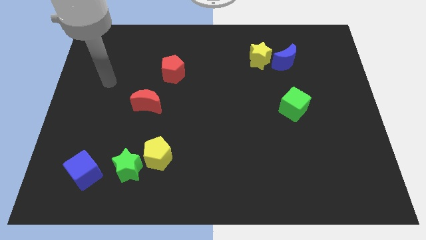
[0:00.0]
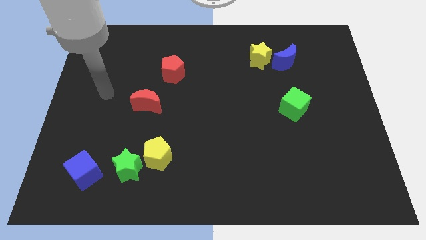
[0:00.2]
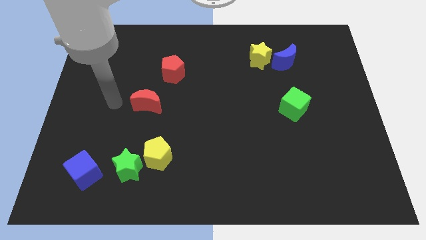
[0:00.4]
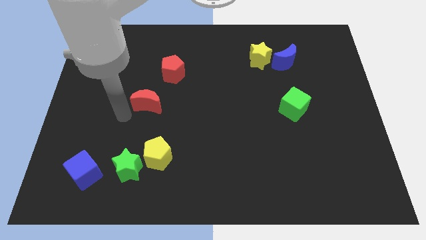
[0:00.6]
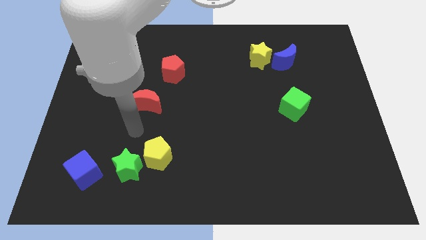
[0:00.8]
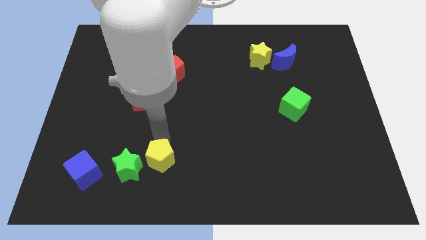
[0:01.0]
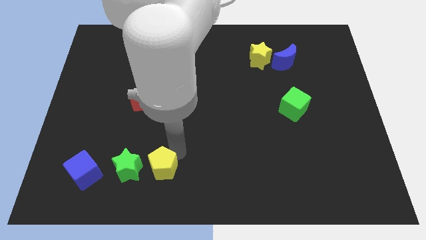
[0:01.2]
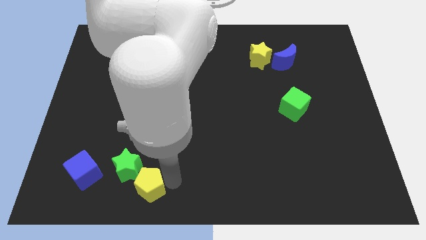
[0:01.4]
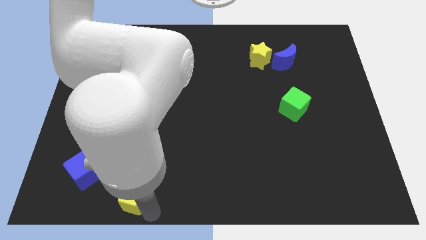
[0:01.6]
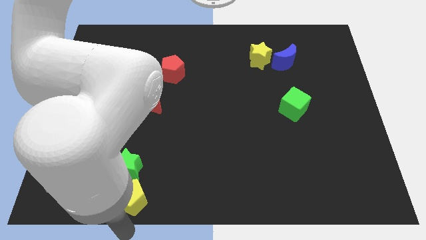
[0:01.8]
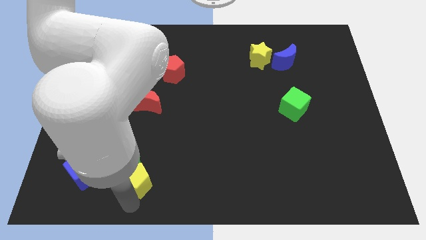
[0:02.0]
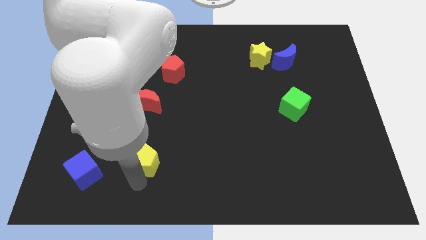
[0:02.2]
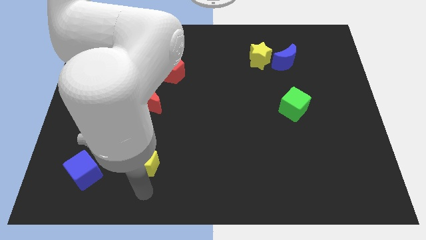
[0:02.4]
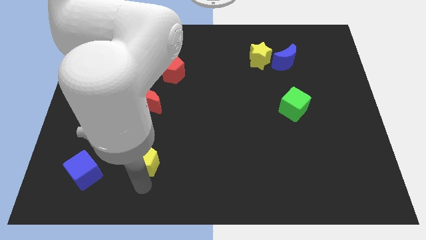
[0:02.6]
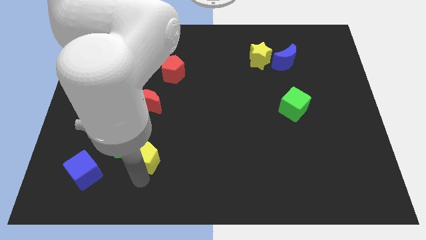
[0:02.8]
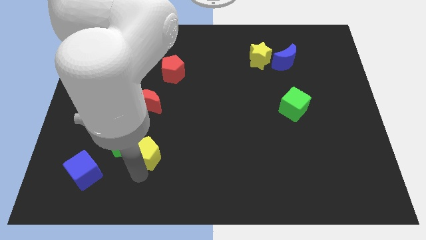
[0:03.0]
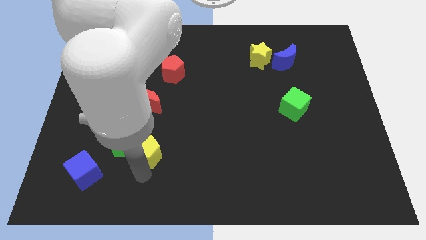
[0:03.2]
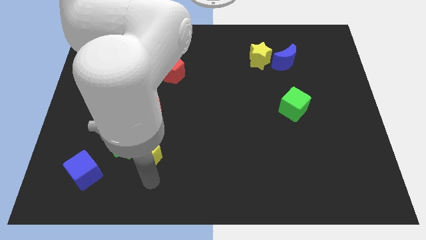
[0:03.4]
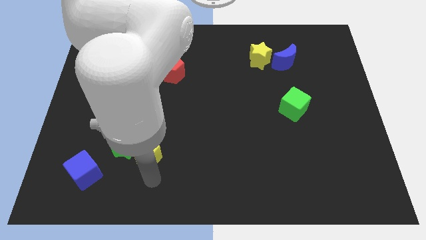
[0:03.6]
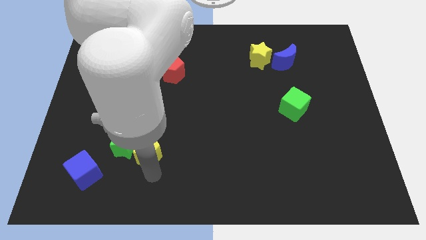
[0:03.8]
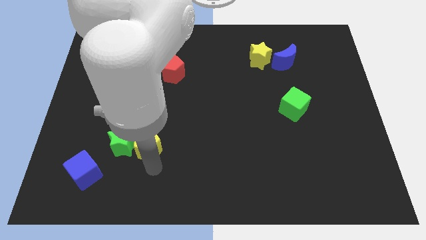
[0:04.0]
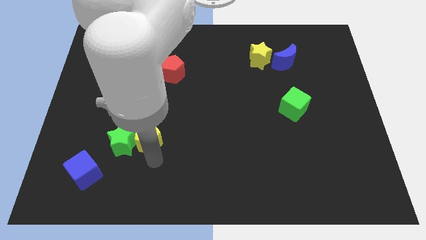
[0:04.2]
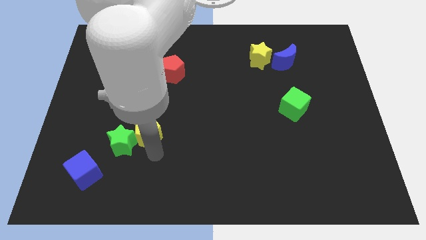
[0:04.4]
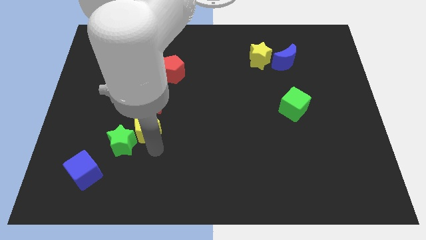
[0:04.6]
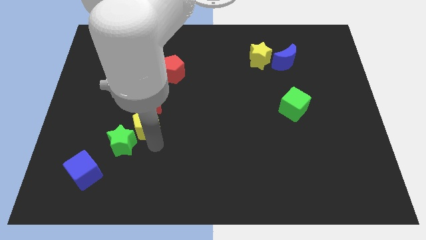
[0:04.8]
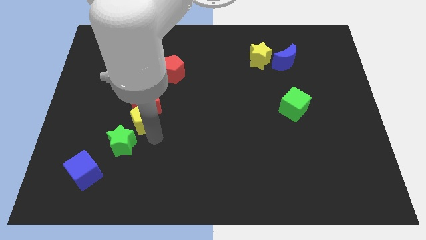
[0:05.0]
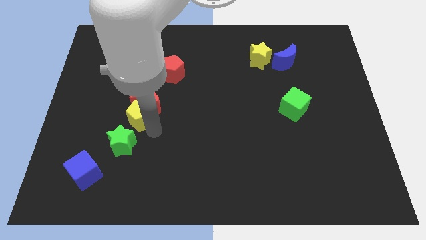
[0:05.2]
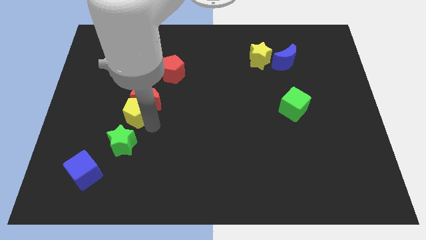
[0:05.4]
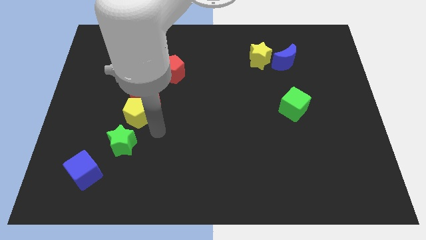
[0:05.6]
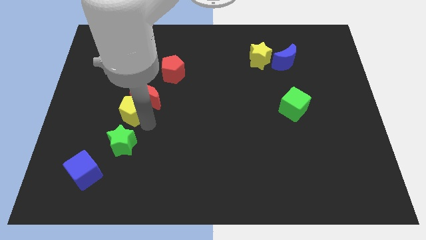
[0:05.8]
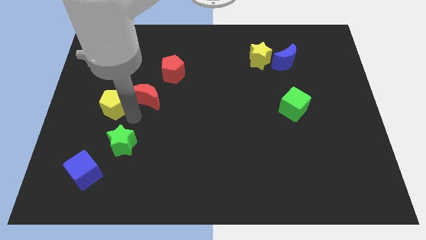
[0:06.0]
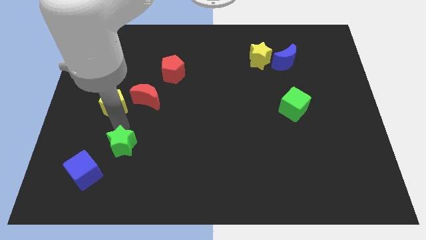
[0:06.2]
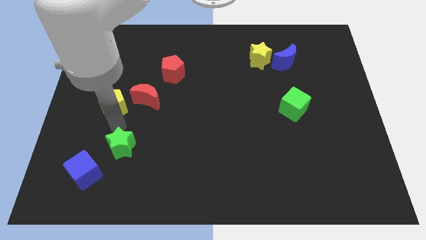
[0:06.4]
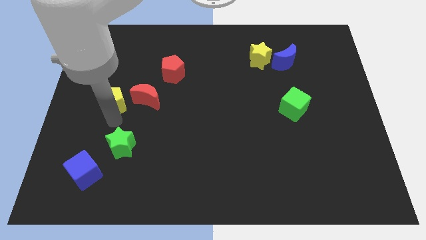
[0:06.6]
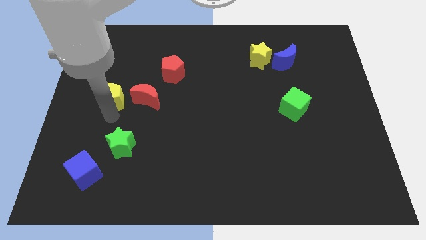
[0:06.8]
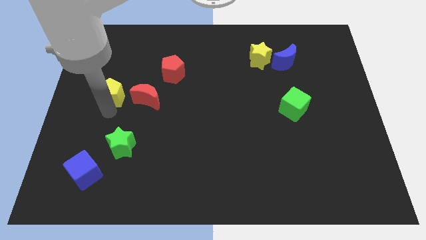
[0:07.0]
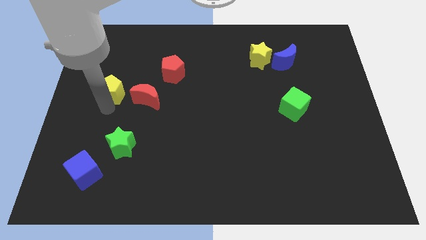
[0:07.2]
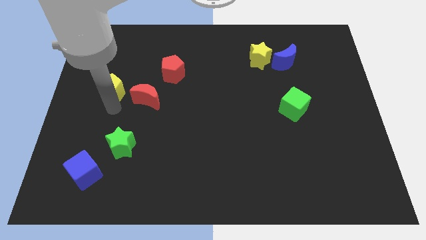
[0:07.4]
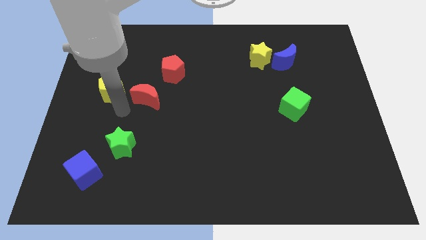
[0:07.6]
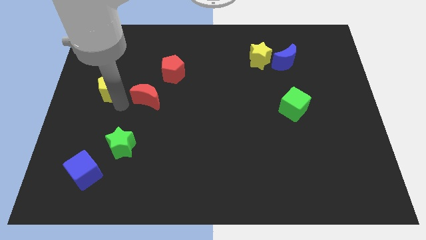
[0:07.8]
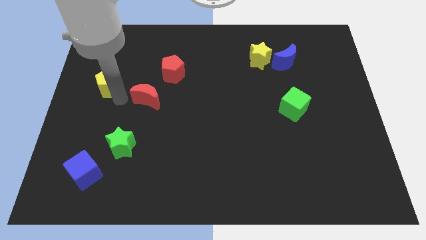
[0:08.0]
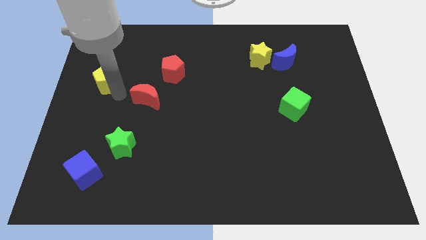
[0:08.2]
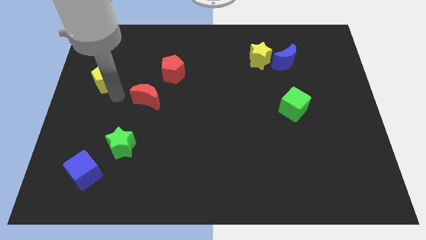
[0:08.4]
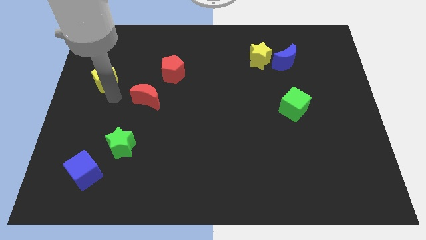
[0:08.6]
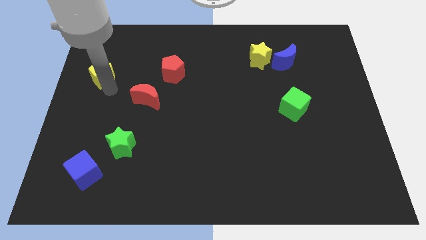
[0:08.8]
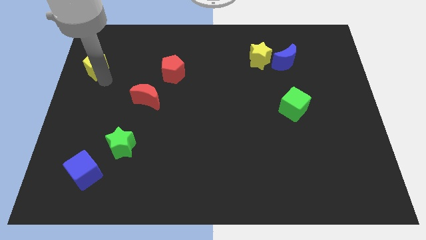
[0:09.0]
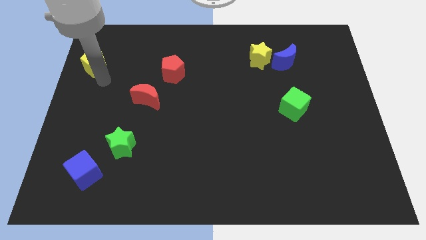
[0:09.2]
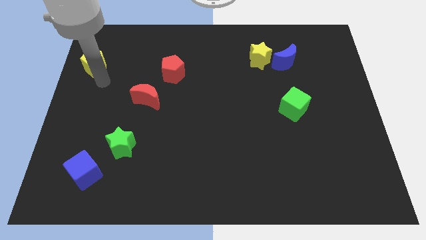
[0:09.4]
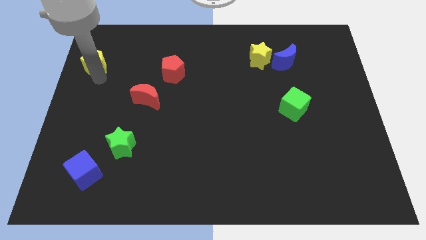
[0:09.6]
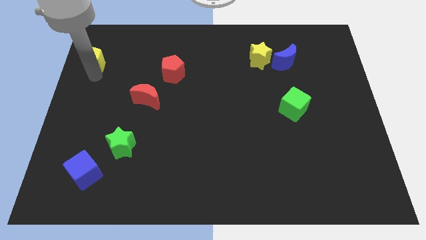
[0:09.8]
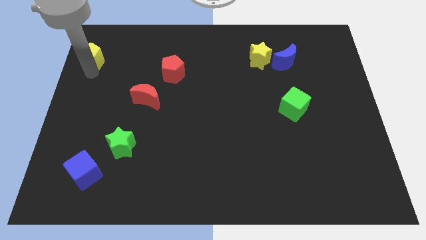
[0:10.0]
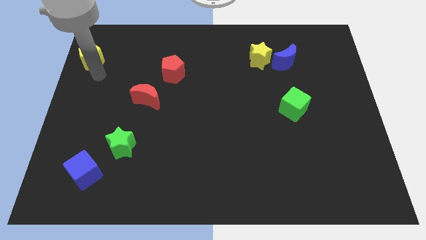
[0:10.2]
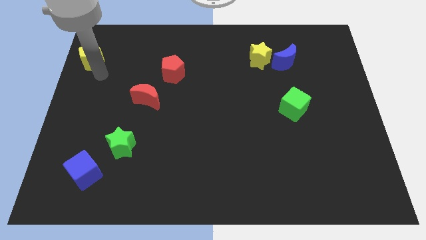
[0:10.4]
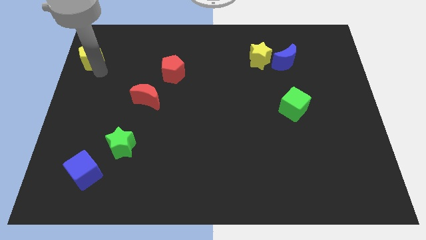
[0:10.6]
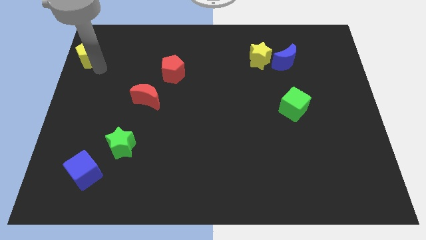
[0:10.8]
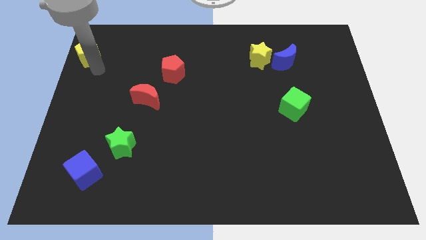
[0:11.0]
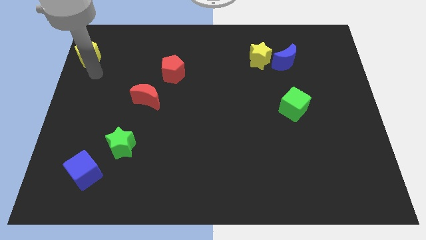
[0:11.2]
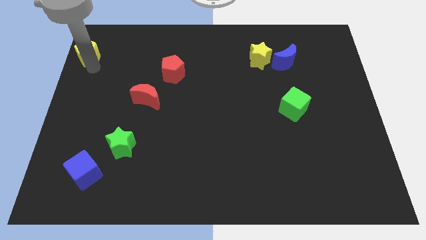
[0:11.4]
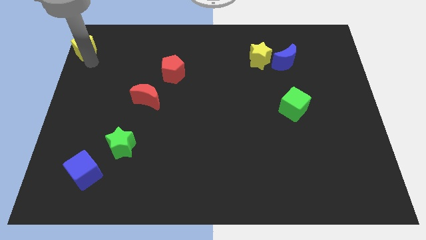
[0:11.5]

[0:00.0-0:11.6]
push the yellow pentagon to the top left

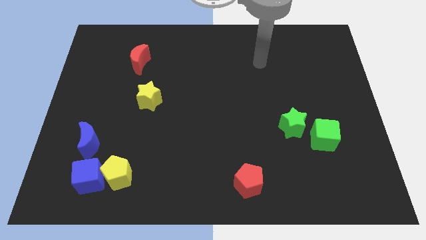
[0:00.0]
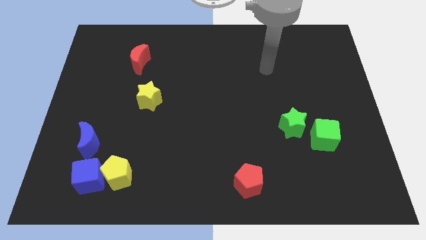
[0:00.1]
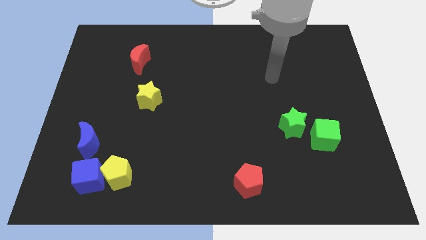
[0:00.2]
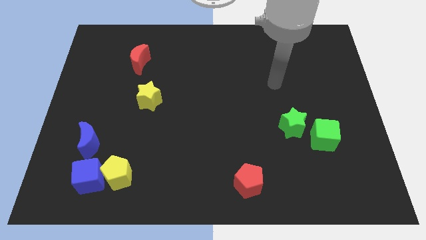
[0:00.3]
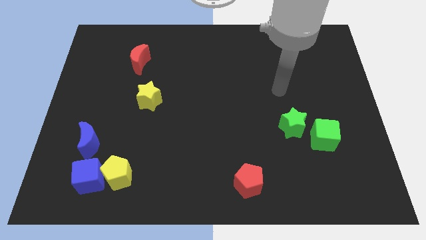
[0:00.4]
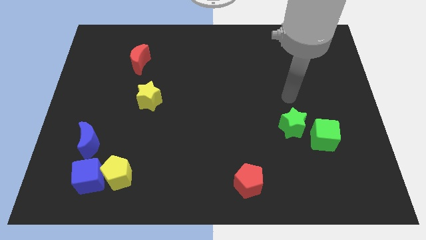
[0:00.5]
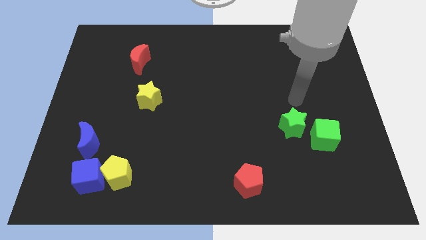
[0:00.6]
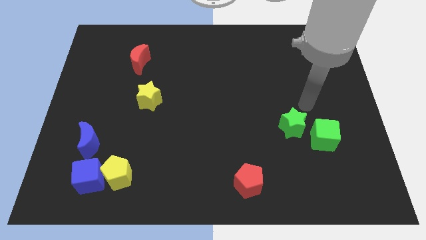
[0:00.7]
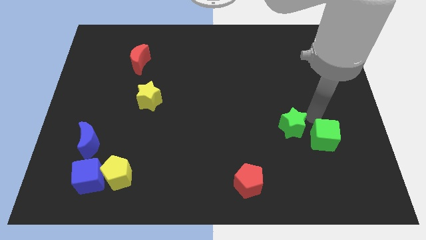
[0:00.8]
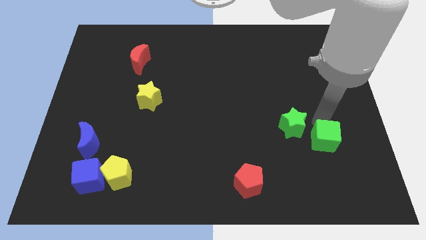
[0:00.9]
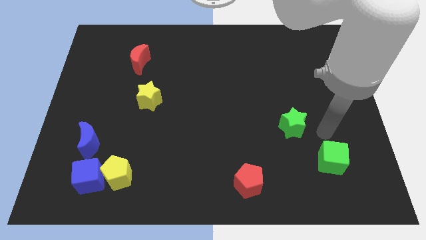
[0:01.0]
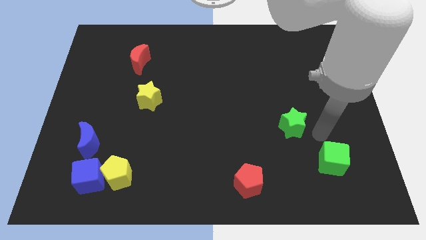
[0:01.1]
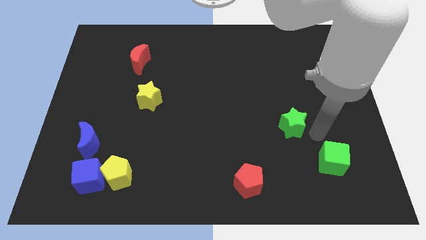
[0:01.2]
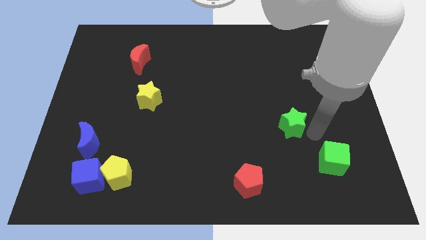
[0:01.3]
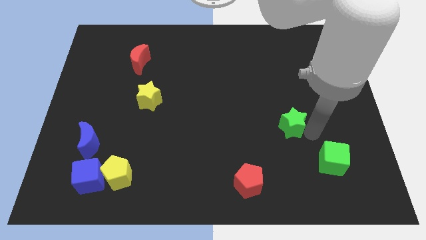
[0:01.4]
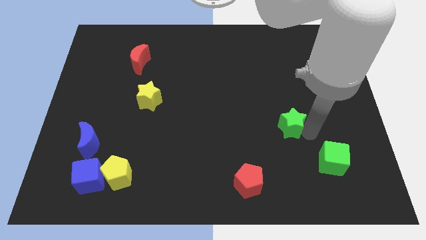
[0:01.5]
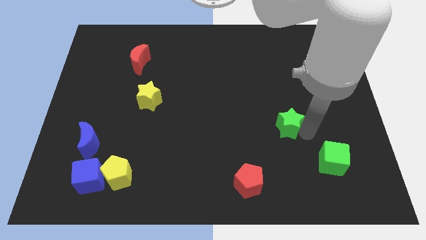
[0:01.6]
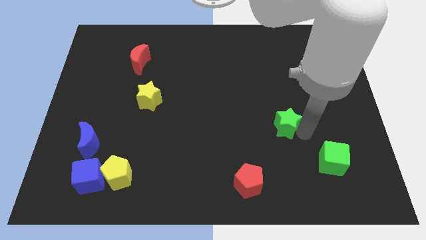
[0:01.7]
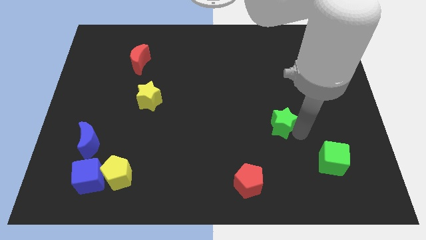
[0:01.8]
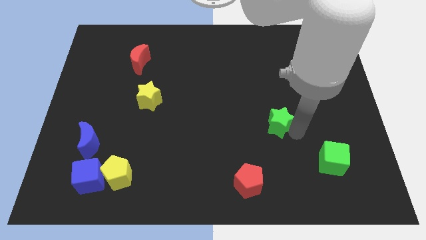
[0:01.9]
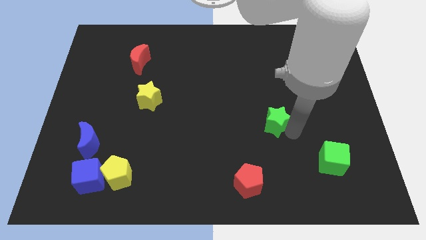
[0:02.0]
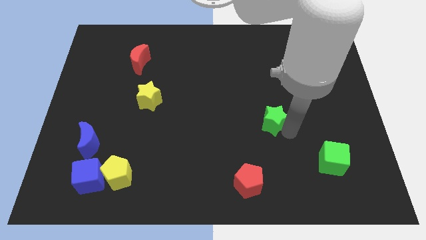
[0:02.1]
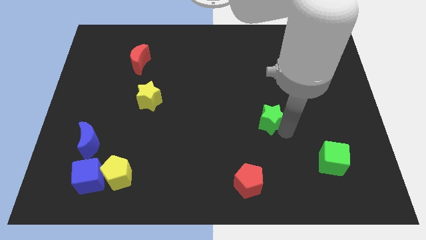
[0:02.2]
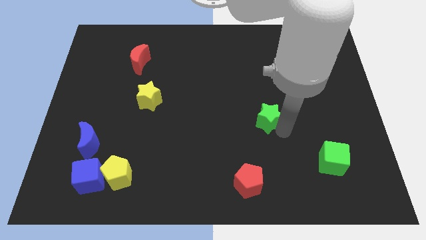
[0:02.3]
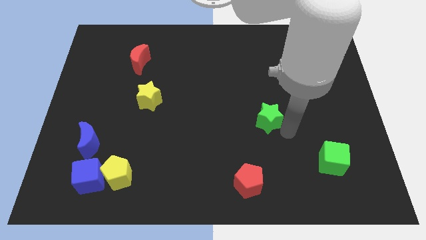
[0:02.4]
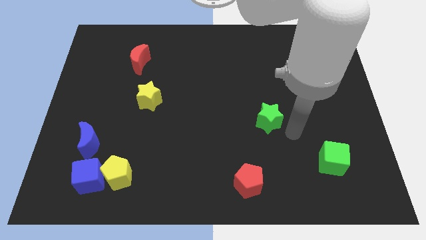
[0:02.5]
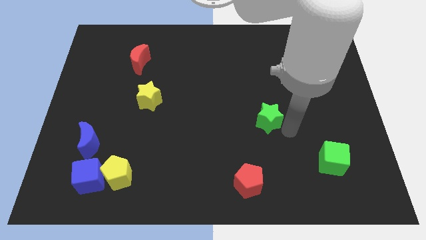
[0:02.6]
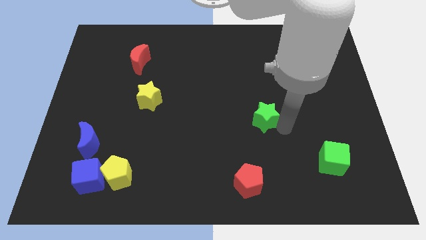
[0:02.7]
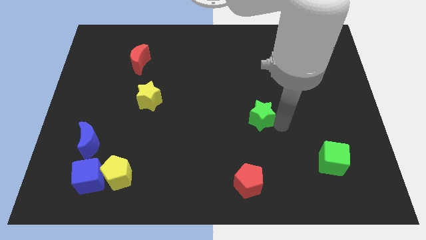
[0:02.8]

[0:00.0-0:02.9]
put the green star to the center of the board
